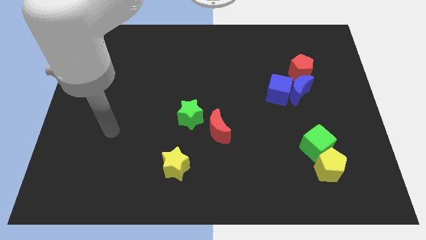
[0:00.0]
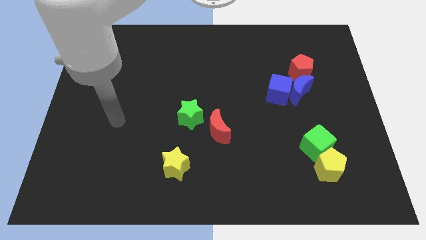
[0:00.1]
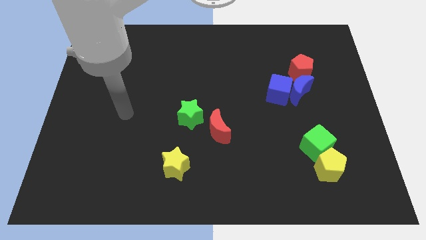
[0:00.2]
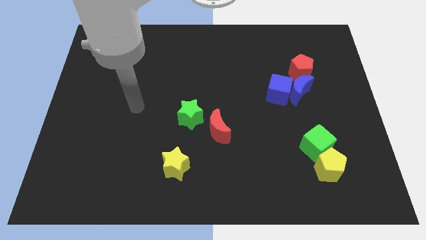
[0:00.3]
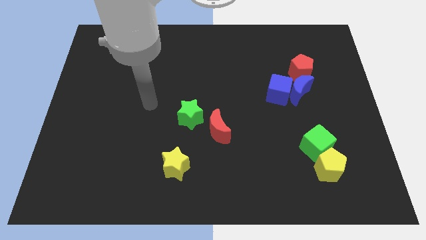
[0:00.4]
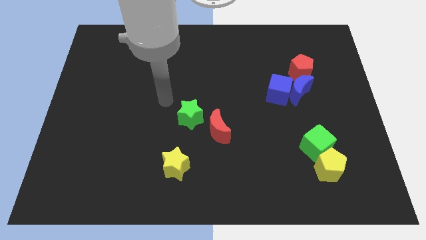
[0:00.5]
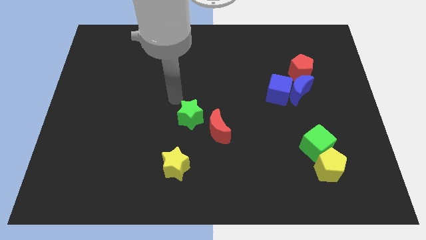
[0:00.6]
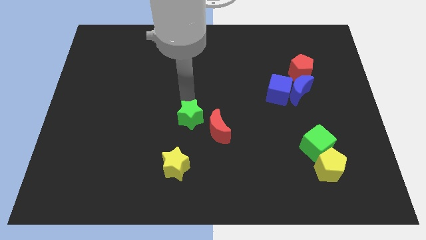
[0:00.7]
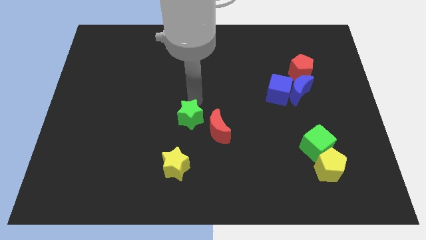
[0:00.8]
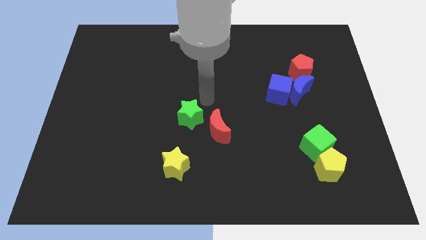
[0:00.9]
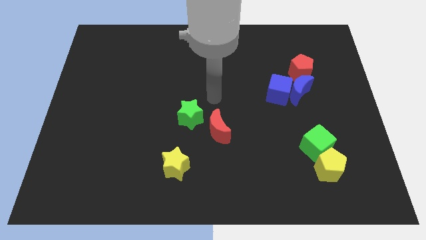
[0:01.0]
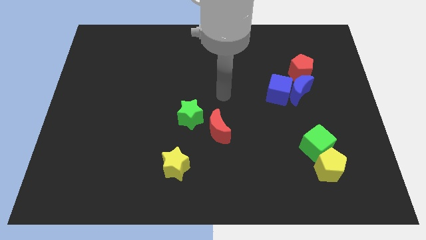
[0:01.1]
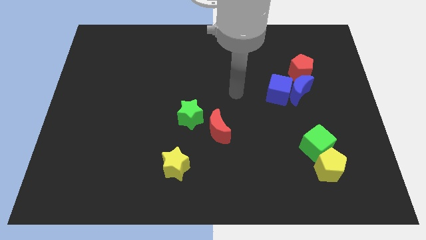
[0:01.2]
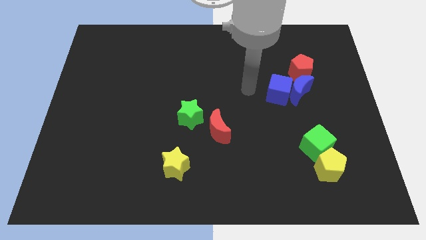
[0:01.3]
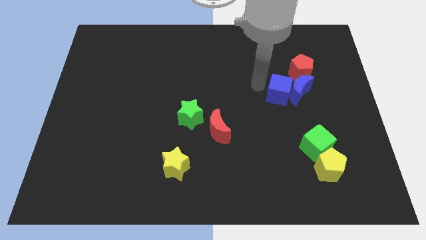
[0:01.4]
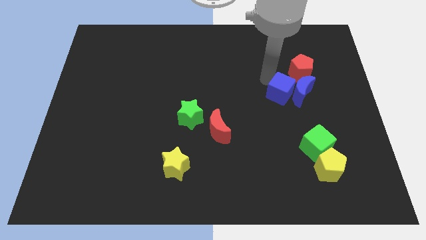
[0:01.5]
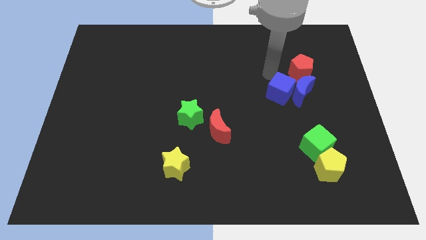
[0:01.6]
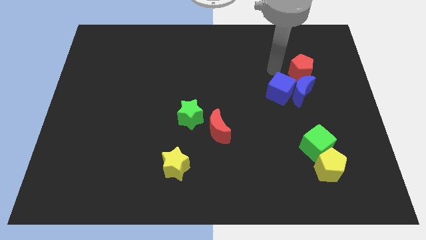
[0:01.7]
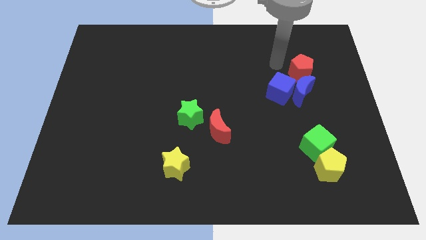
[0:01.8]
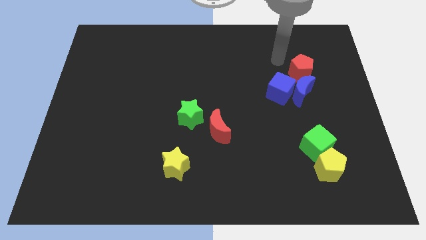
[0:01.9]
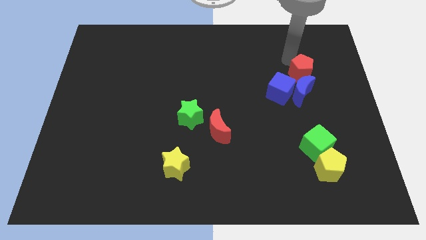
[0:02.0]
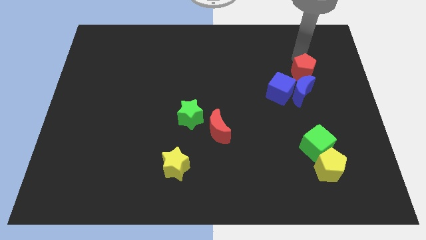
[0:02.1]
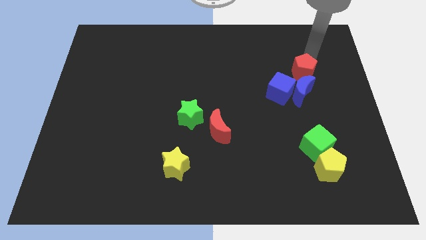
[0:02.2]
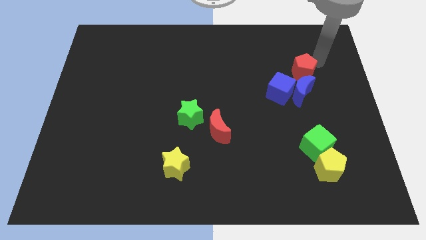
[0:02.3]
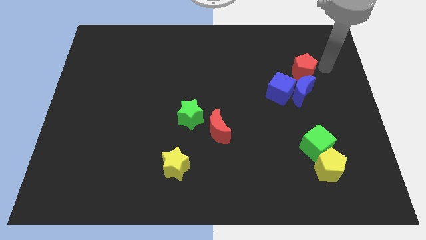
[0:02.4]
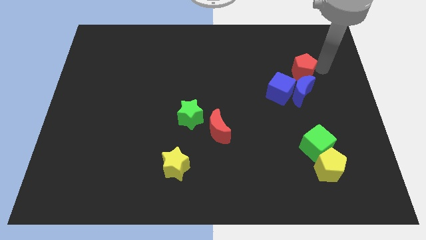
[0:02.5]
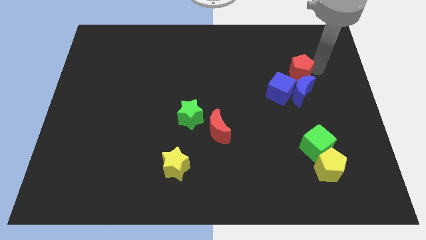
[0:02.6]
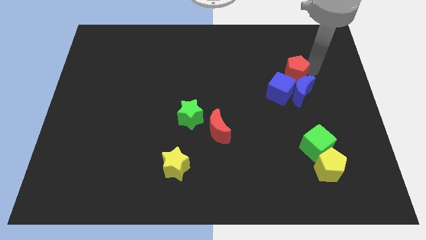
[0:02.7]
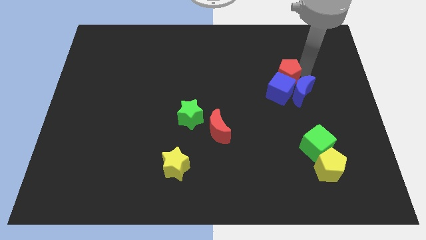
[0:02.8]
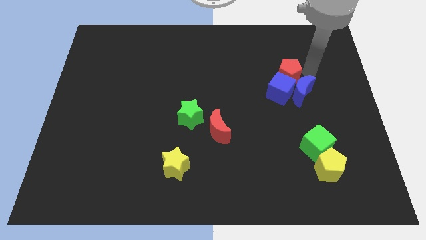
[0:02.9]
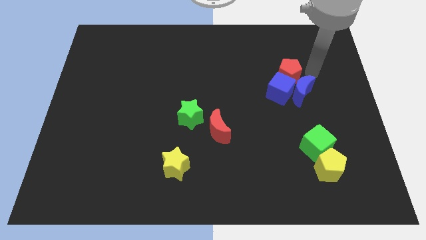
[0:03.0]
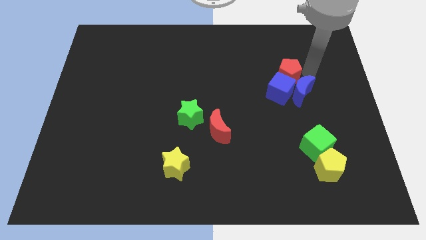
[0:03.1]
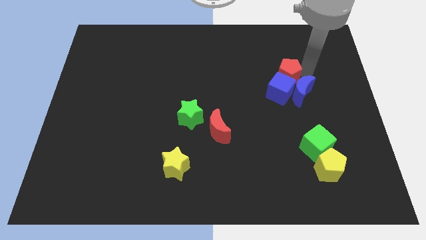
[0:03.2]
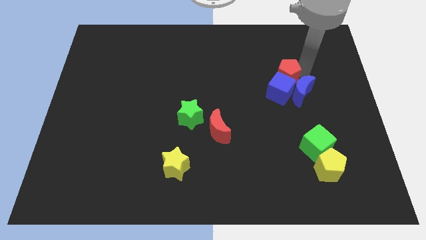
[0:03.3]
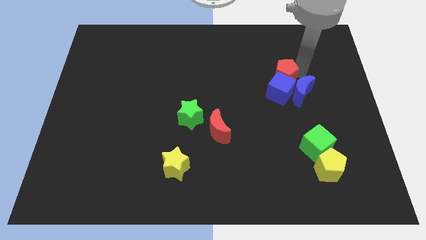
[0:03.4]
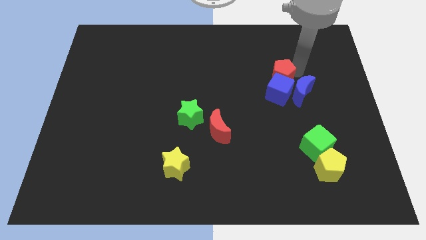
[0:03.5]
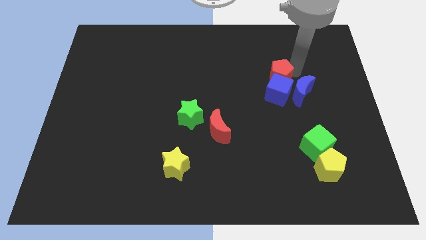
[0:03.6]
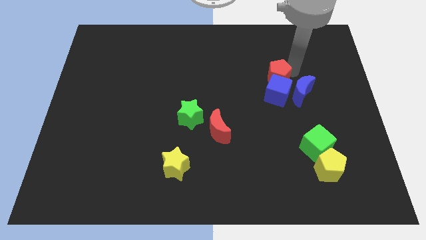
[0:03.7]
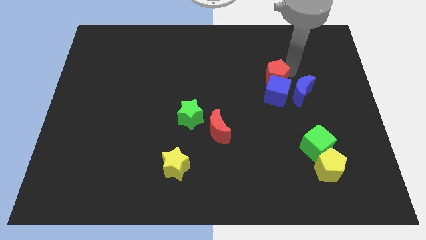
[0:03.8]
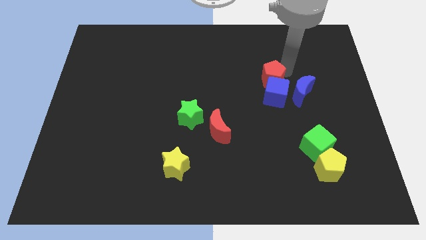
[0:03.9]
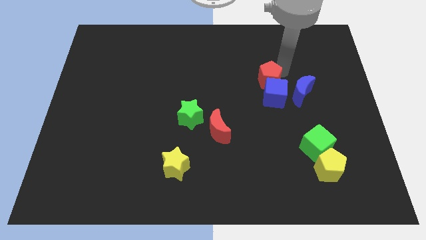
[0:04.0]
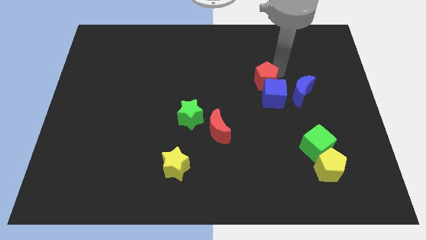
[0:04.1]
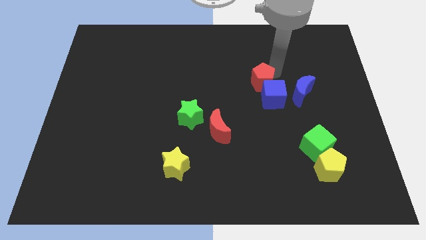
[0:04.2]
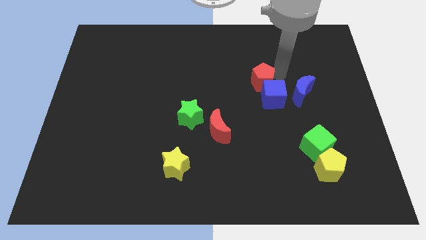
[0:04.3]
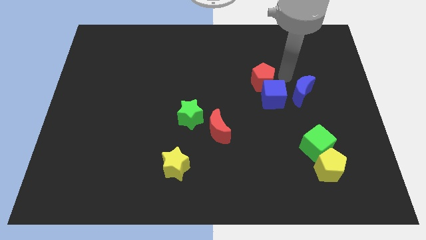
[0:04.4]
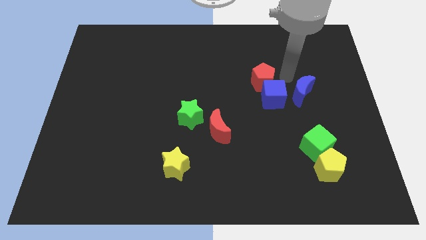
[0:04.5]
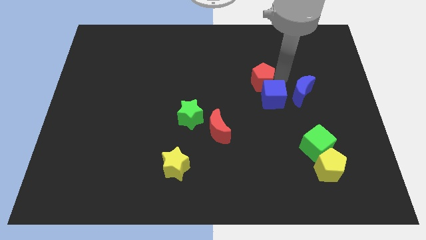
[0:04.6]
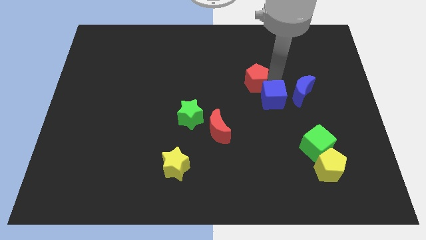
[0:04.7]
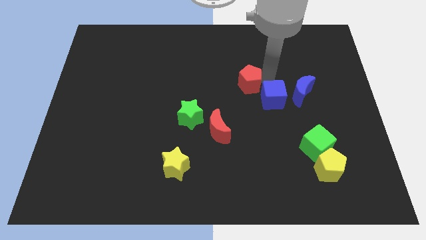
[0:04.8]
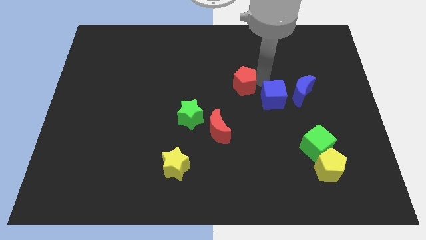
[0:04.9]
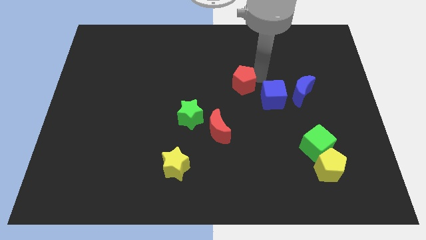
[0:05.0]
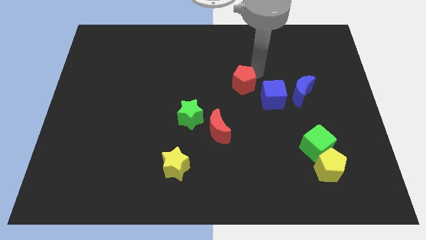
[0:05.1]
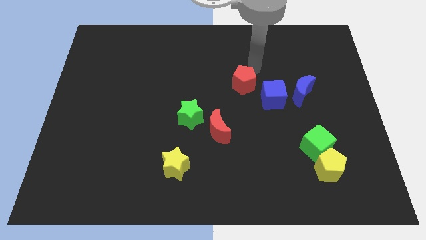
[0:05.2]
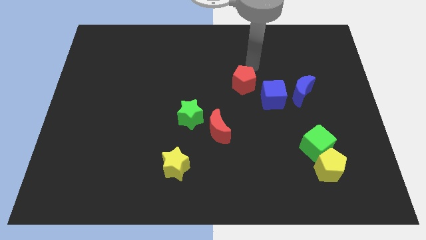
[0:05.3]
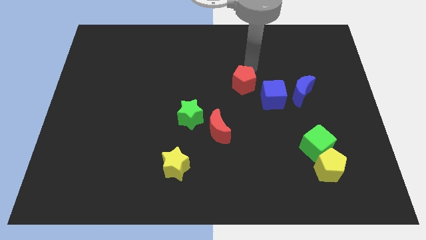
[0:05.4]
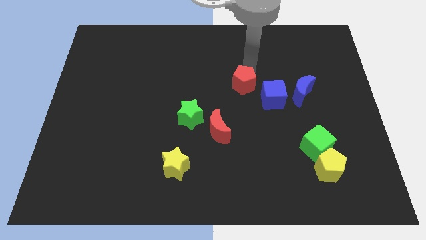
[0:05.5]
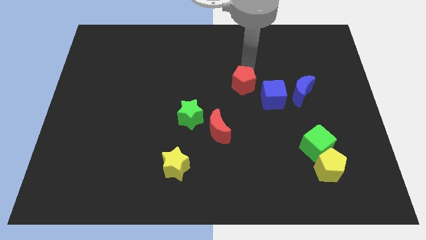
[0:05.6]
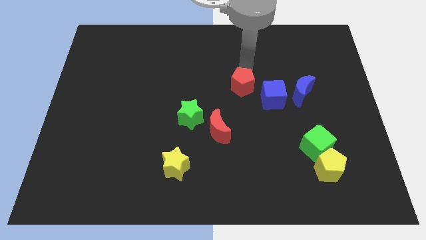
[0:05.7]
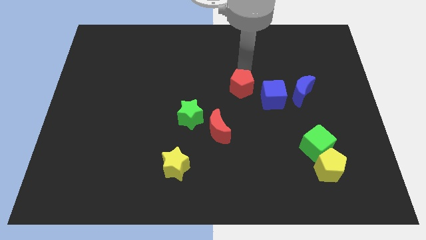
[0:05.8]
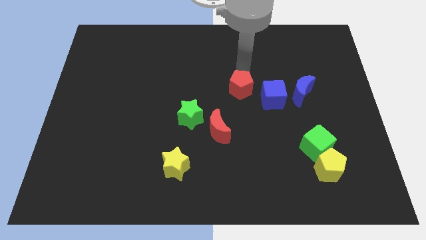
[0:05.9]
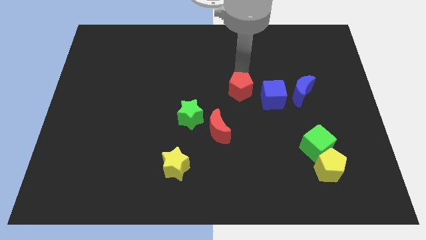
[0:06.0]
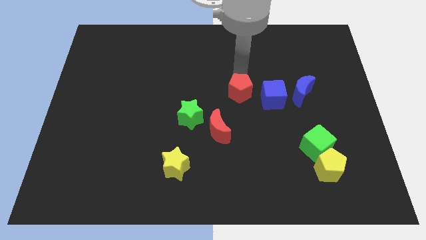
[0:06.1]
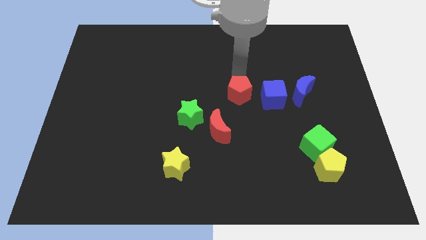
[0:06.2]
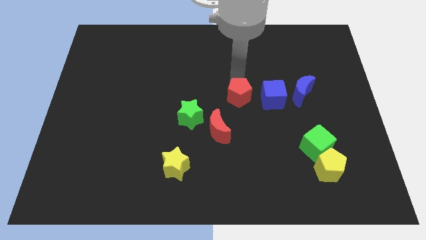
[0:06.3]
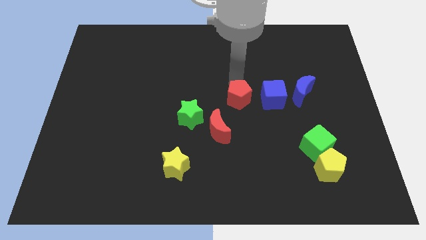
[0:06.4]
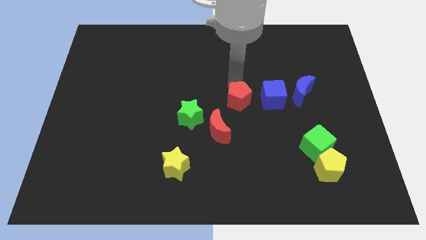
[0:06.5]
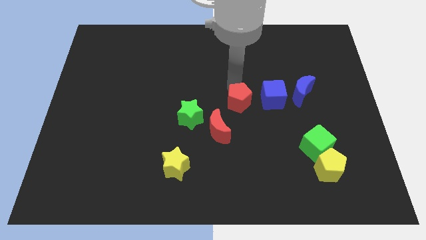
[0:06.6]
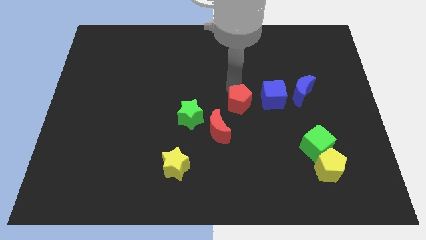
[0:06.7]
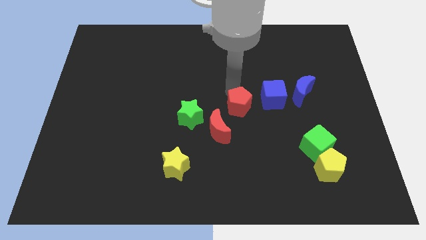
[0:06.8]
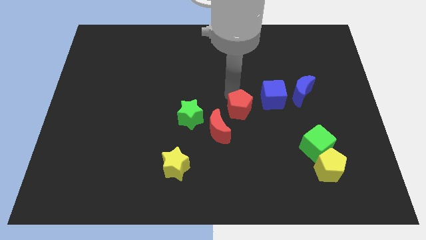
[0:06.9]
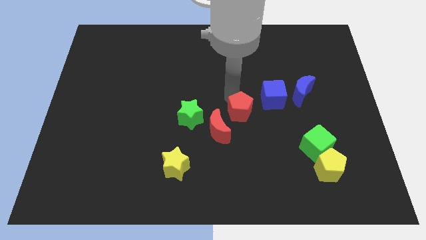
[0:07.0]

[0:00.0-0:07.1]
push the red pentagon downwards and left diagonally

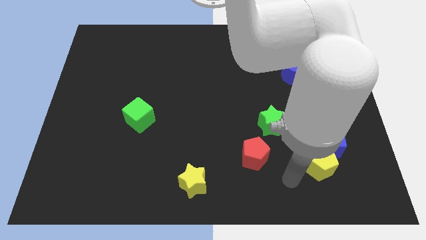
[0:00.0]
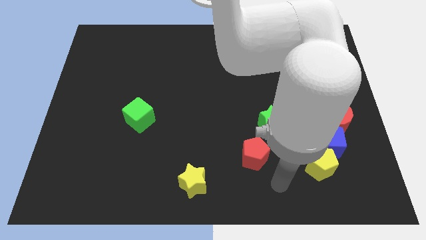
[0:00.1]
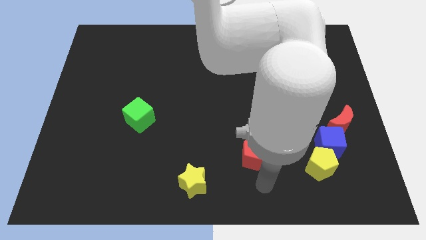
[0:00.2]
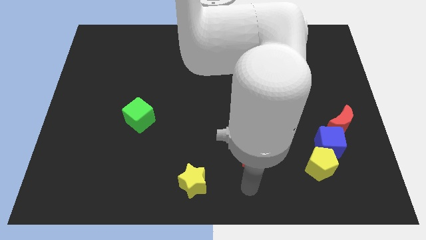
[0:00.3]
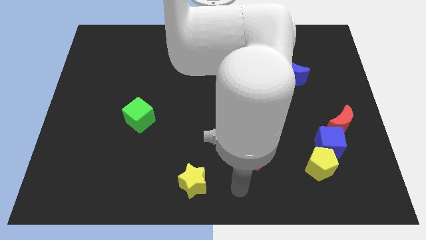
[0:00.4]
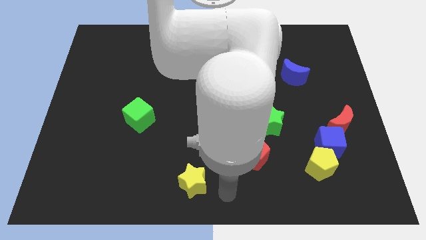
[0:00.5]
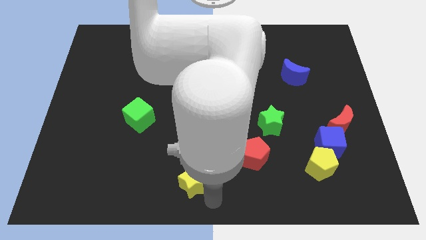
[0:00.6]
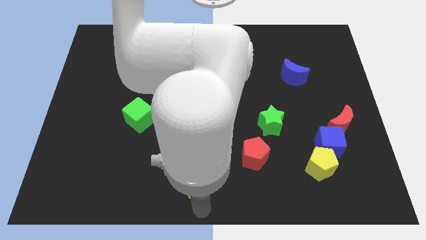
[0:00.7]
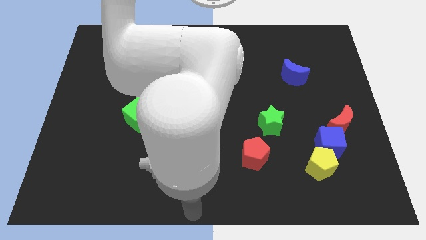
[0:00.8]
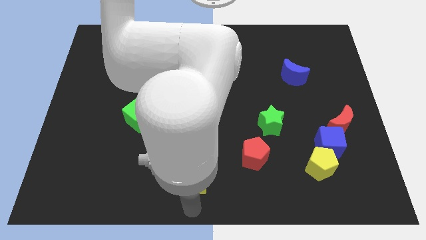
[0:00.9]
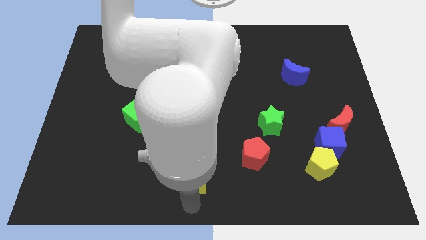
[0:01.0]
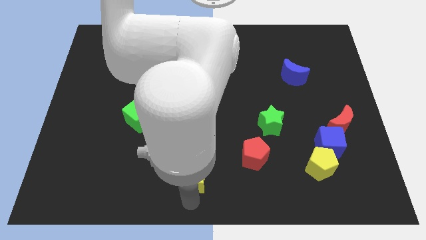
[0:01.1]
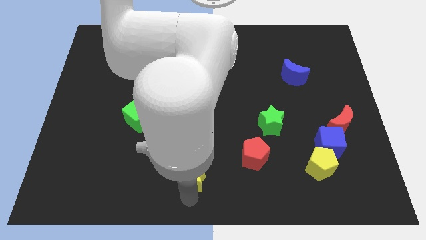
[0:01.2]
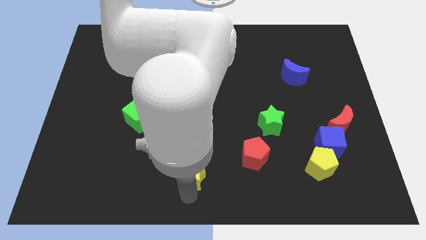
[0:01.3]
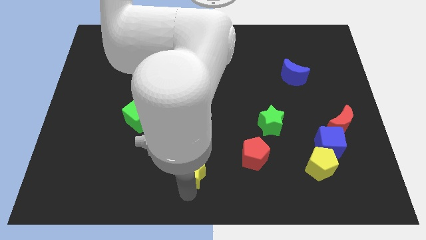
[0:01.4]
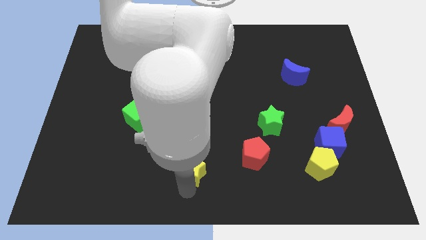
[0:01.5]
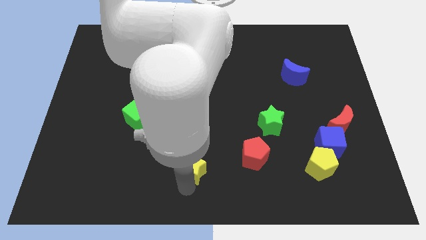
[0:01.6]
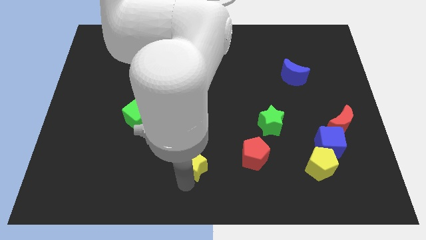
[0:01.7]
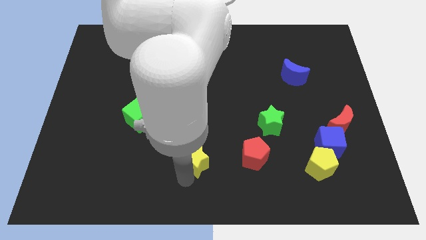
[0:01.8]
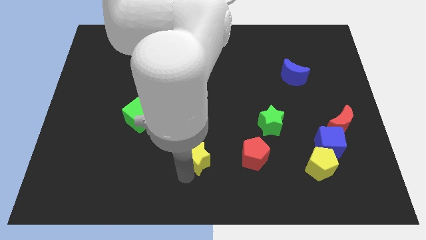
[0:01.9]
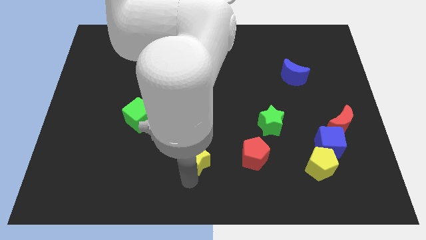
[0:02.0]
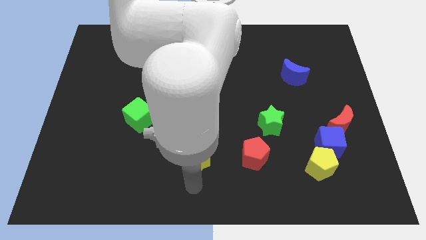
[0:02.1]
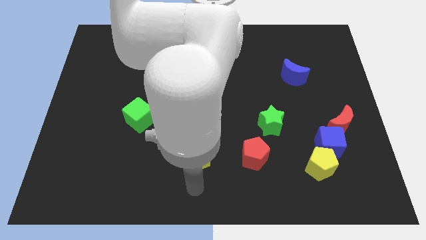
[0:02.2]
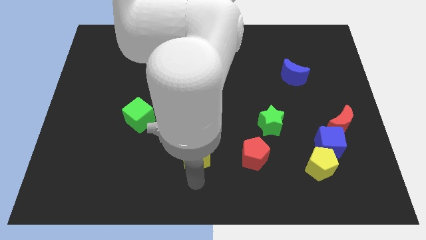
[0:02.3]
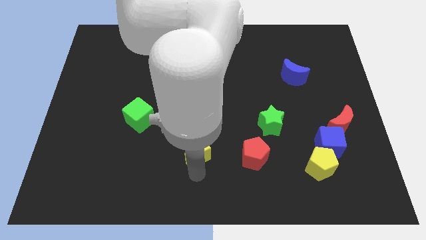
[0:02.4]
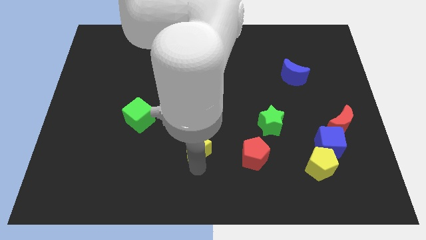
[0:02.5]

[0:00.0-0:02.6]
slightly move the yellow star up
